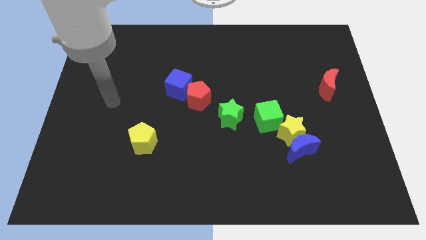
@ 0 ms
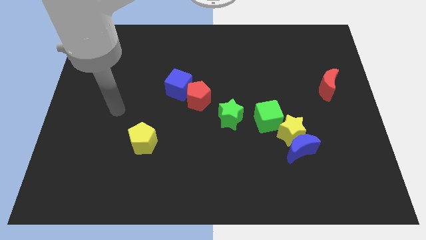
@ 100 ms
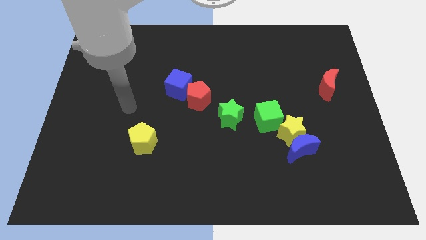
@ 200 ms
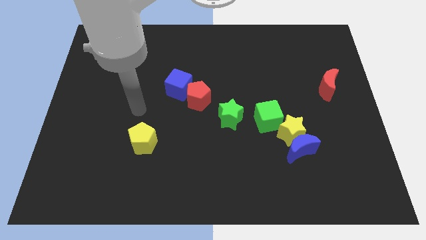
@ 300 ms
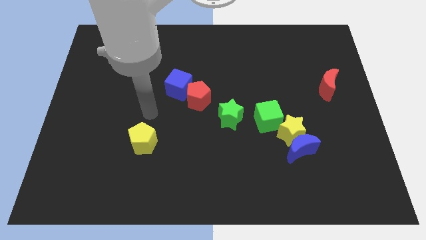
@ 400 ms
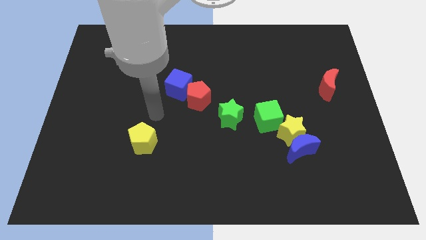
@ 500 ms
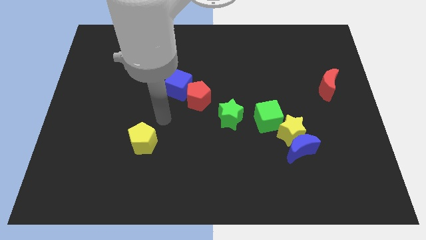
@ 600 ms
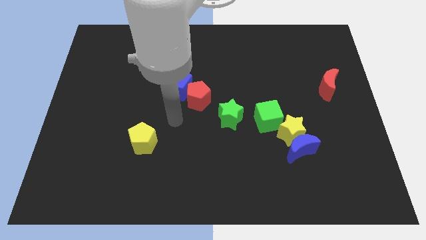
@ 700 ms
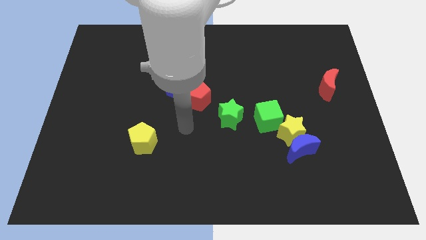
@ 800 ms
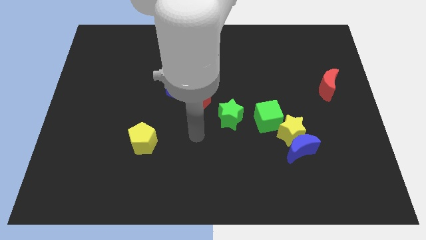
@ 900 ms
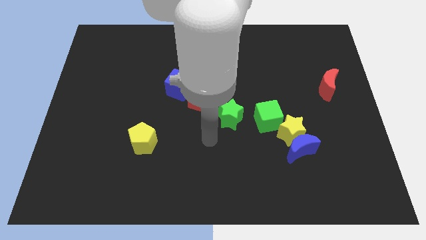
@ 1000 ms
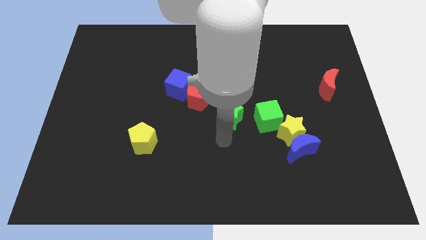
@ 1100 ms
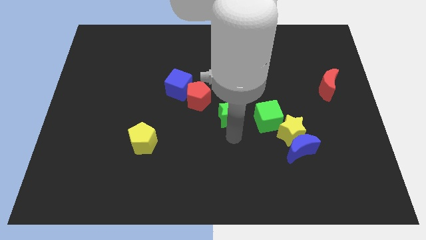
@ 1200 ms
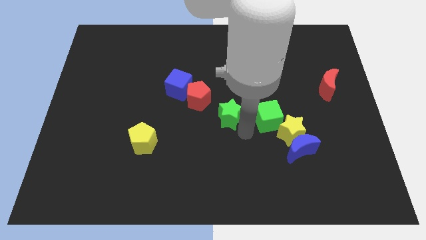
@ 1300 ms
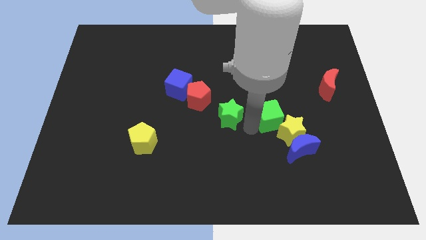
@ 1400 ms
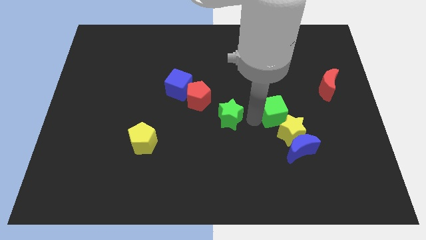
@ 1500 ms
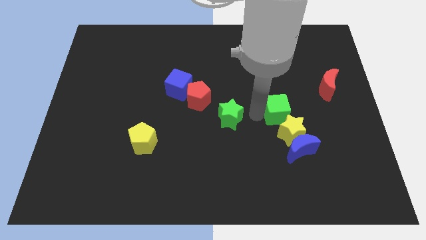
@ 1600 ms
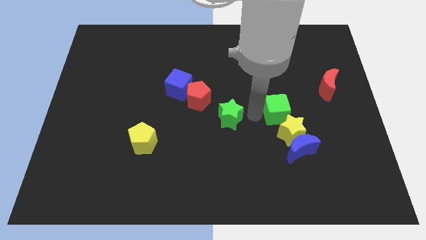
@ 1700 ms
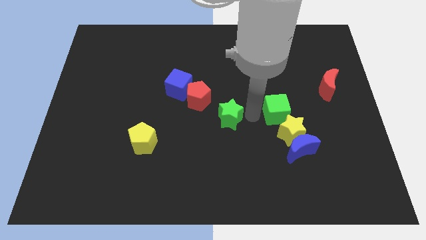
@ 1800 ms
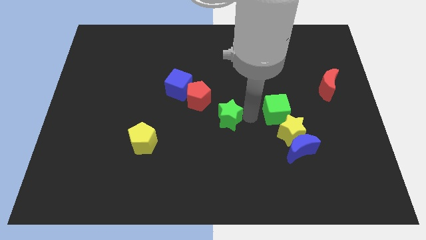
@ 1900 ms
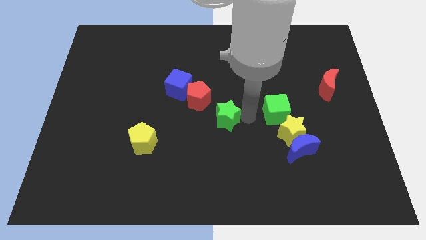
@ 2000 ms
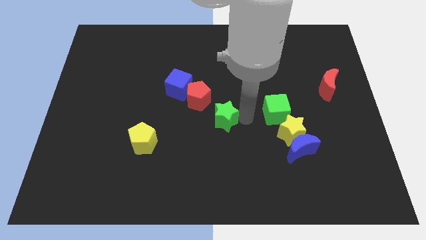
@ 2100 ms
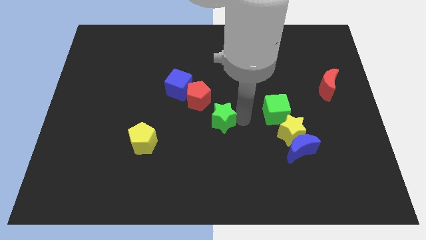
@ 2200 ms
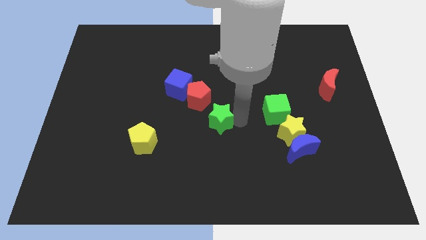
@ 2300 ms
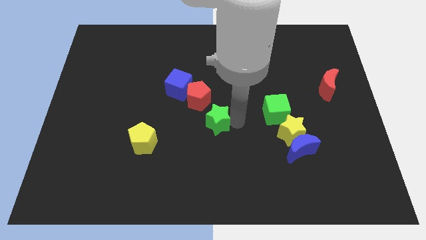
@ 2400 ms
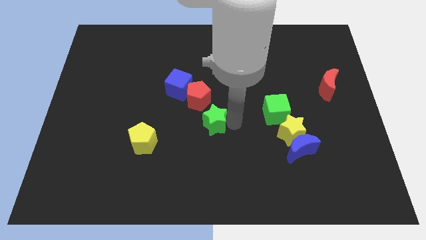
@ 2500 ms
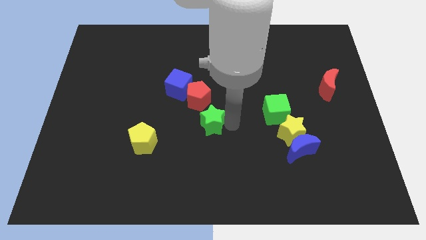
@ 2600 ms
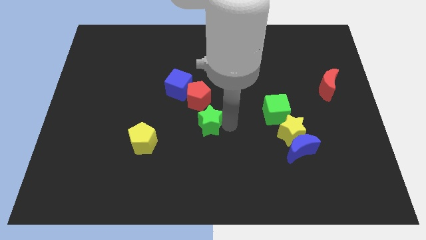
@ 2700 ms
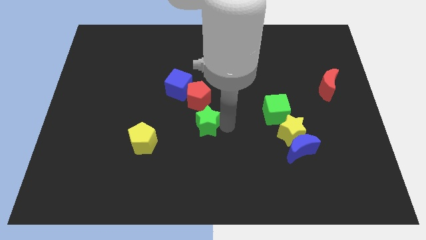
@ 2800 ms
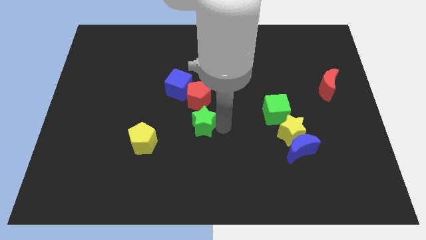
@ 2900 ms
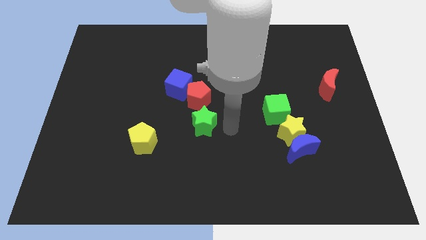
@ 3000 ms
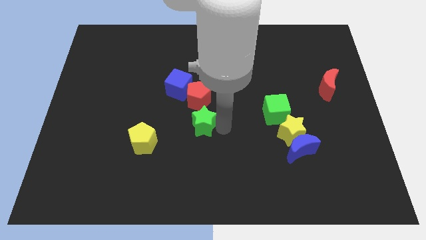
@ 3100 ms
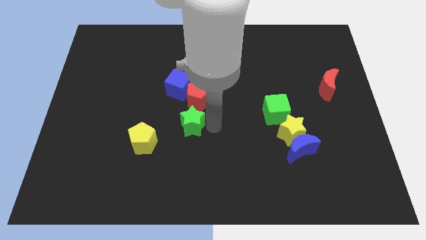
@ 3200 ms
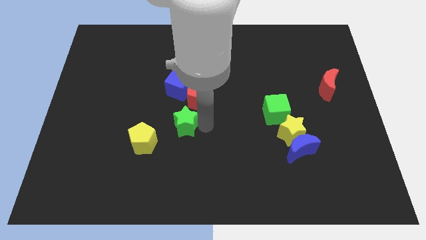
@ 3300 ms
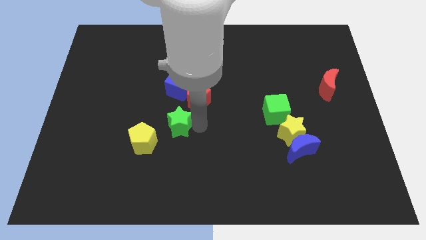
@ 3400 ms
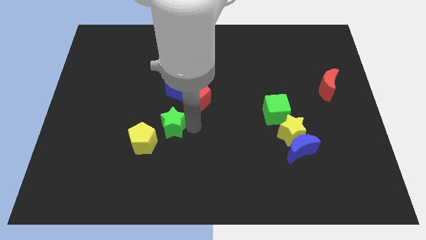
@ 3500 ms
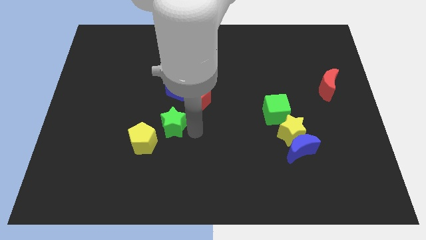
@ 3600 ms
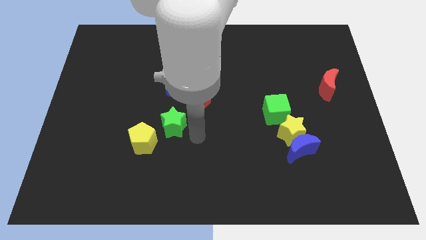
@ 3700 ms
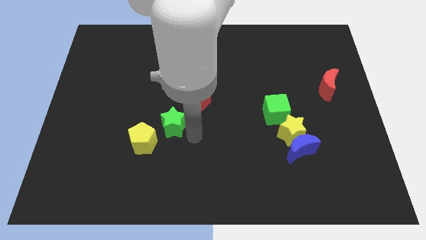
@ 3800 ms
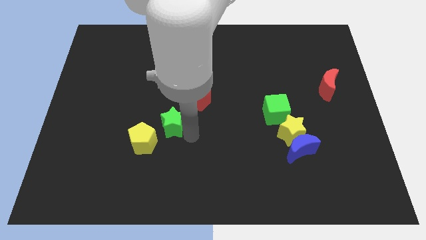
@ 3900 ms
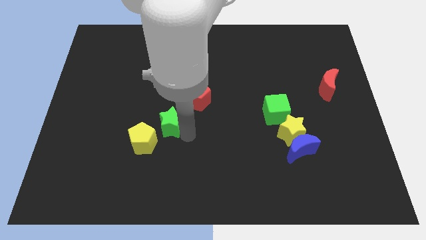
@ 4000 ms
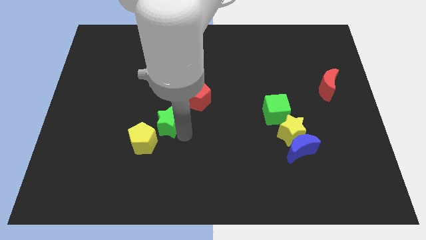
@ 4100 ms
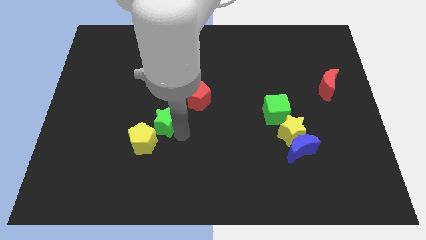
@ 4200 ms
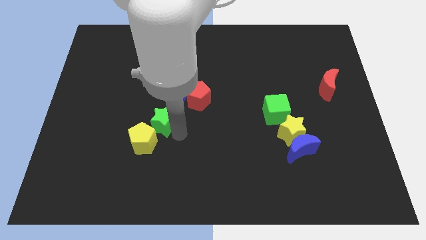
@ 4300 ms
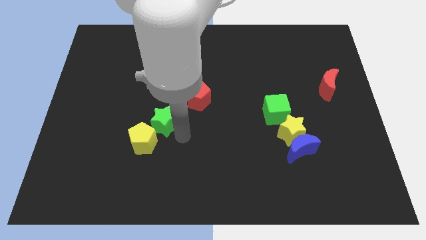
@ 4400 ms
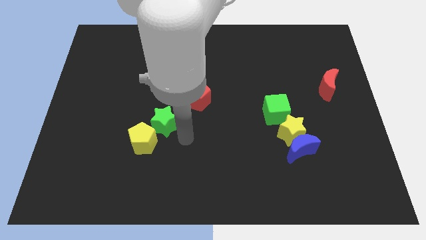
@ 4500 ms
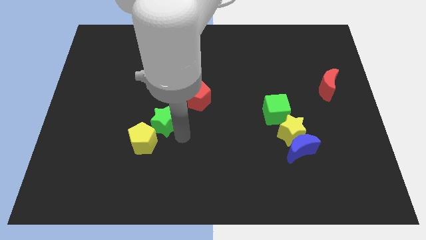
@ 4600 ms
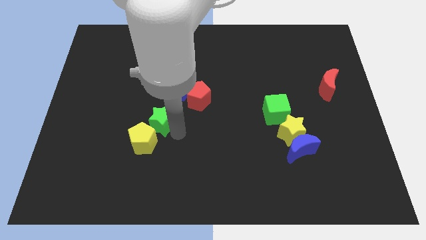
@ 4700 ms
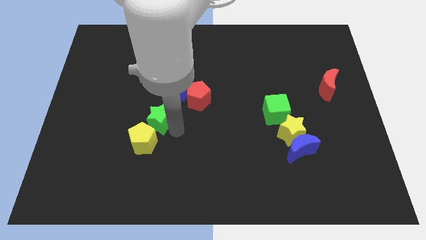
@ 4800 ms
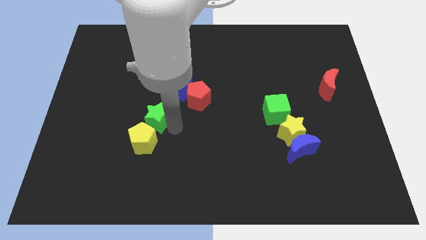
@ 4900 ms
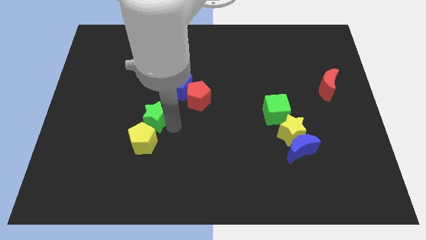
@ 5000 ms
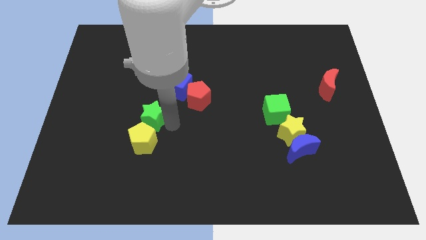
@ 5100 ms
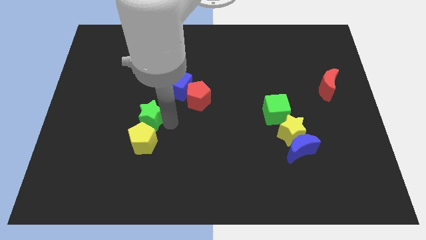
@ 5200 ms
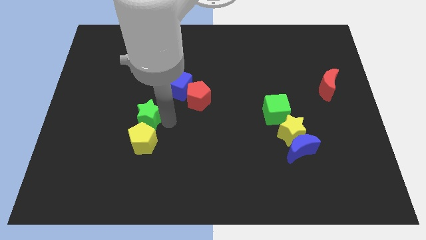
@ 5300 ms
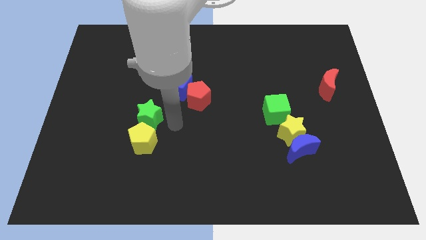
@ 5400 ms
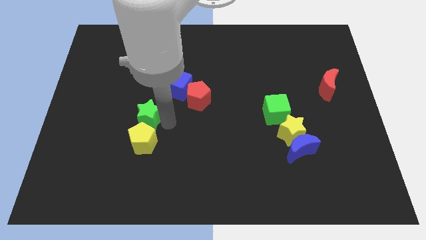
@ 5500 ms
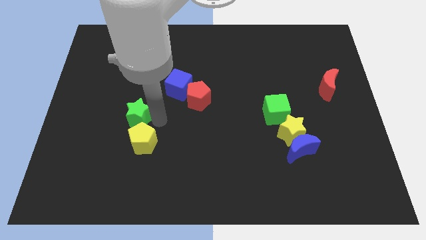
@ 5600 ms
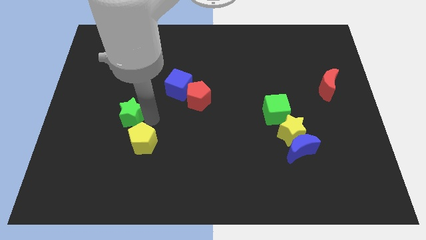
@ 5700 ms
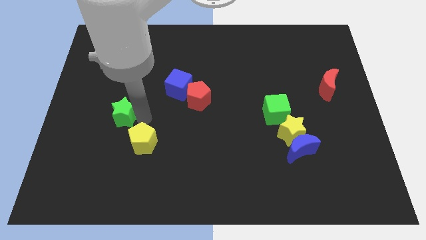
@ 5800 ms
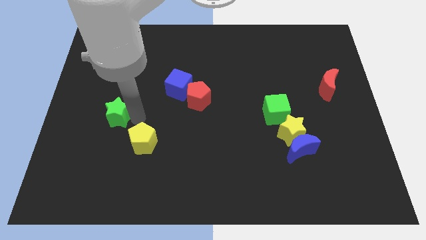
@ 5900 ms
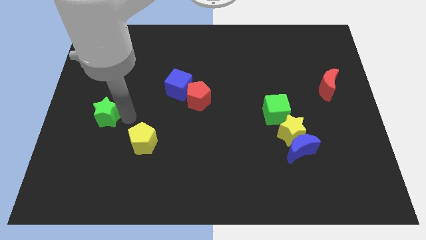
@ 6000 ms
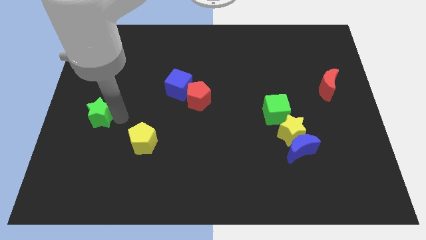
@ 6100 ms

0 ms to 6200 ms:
slide the green star to the center left

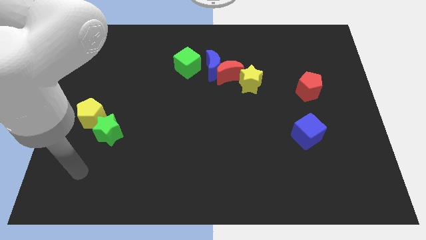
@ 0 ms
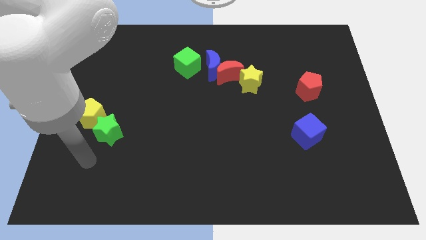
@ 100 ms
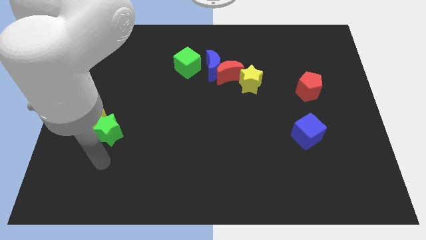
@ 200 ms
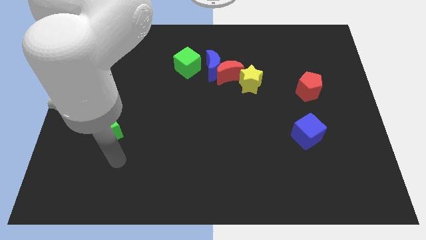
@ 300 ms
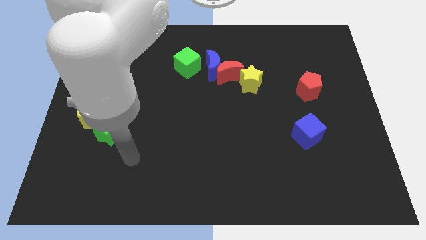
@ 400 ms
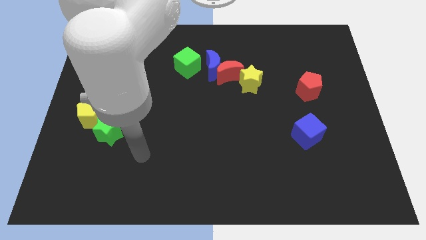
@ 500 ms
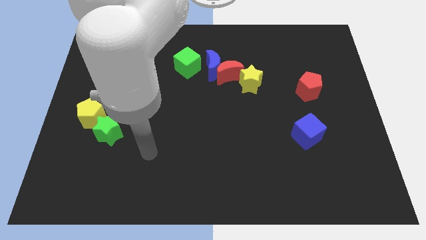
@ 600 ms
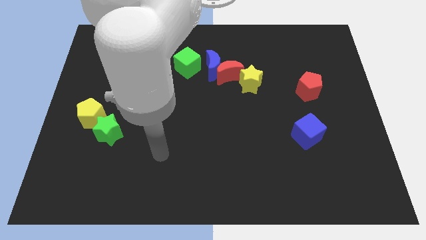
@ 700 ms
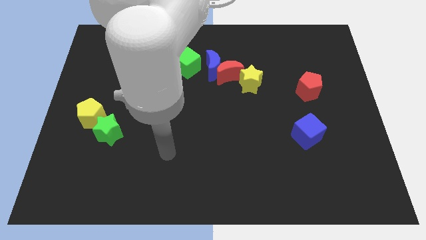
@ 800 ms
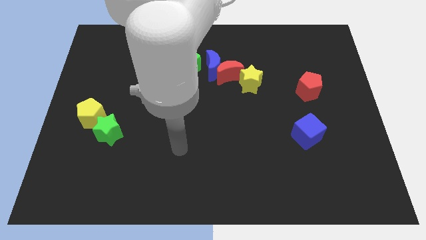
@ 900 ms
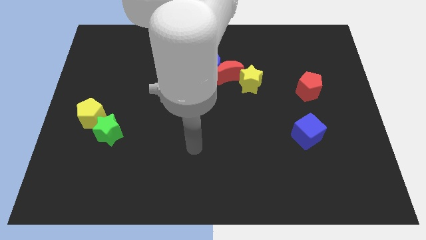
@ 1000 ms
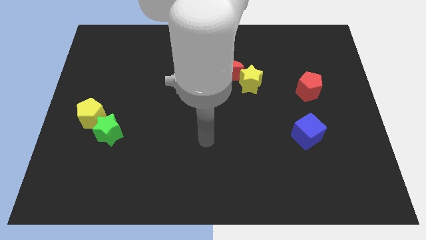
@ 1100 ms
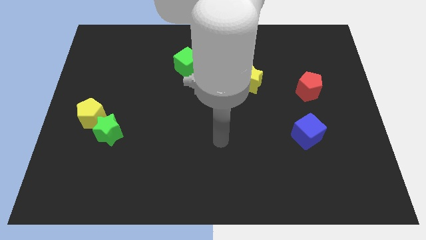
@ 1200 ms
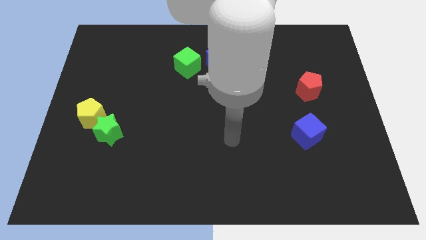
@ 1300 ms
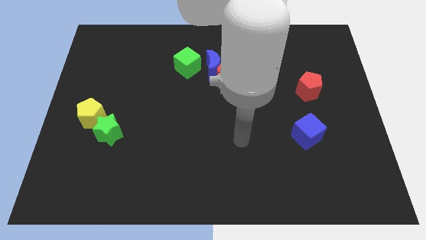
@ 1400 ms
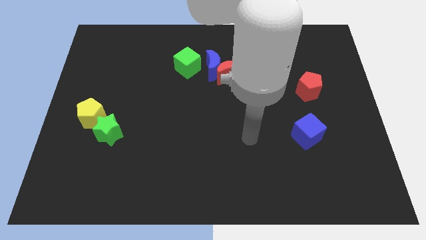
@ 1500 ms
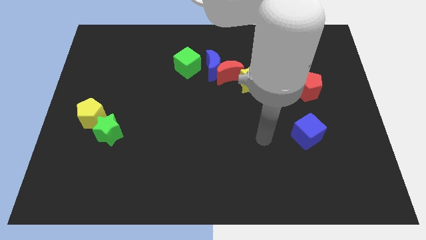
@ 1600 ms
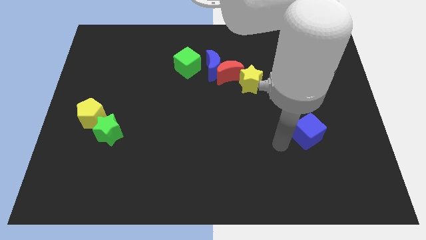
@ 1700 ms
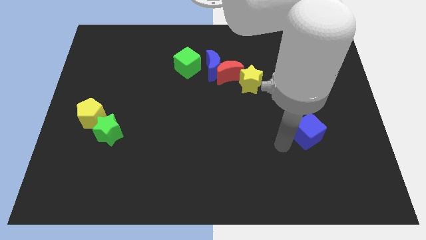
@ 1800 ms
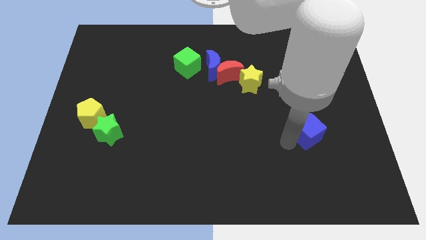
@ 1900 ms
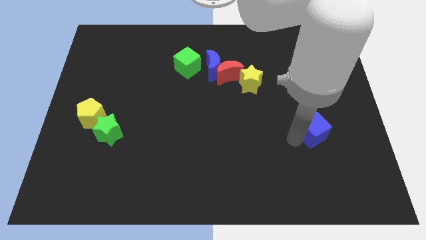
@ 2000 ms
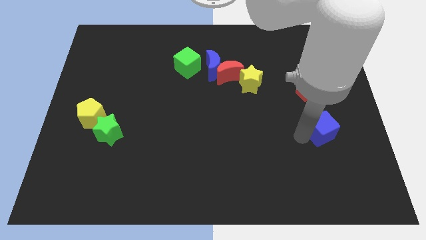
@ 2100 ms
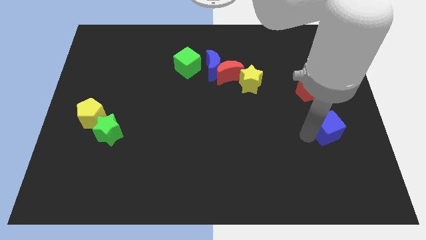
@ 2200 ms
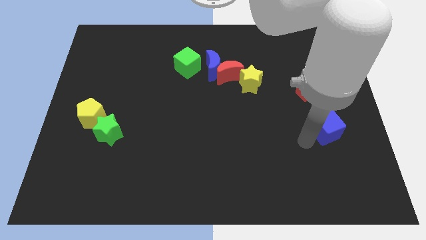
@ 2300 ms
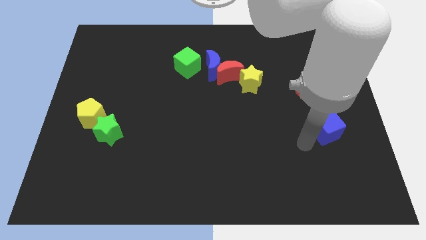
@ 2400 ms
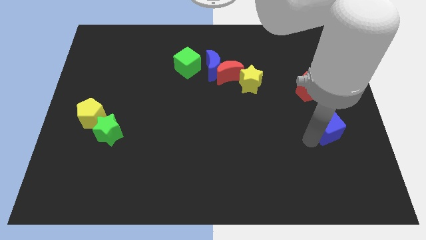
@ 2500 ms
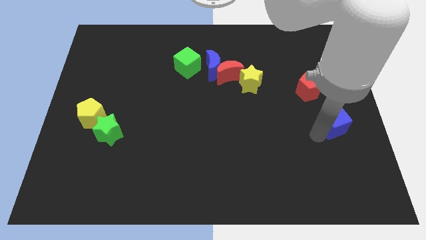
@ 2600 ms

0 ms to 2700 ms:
slide the blue cube to the right side of the board
